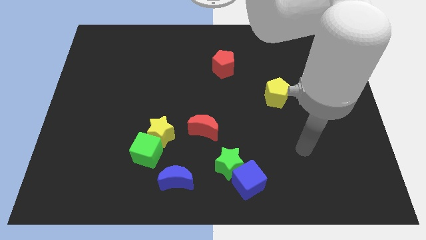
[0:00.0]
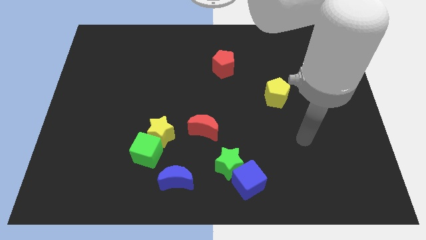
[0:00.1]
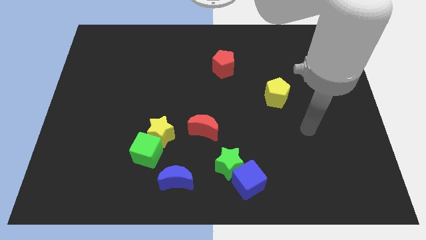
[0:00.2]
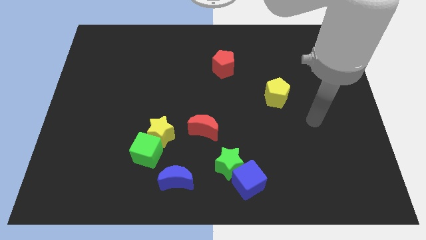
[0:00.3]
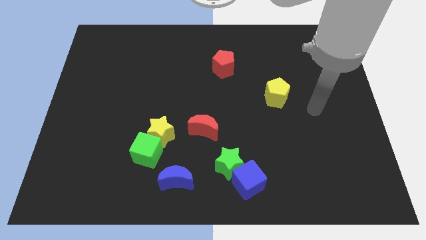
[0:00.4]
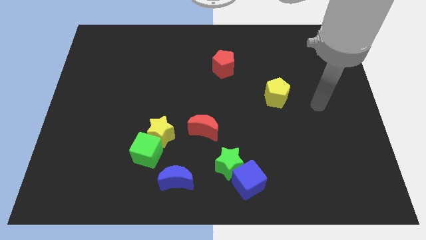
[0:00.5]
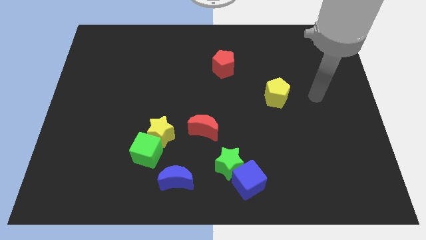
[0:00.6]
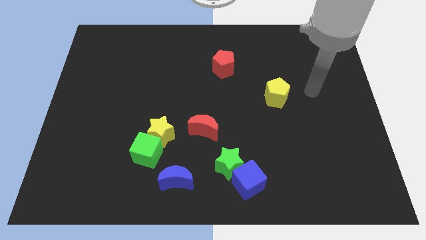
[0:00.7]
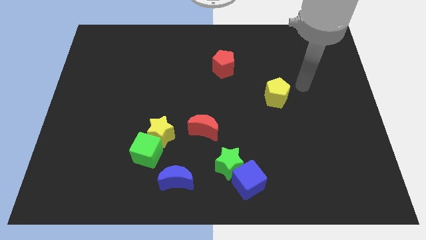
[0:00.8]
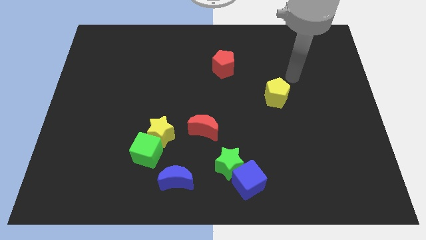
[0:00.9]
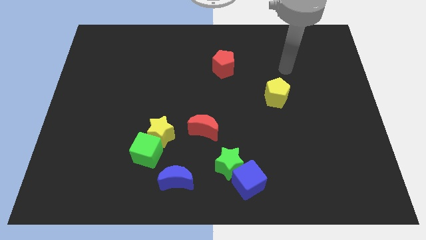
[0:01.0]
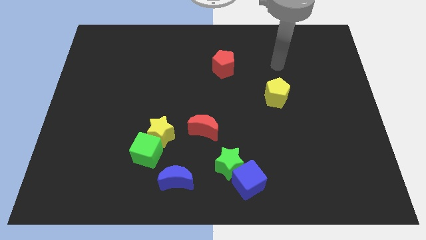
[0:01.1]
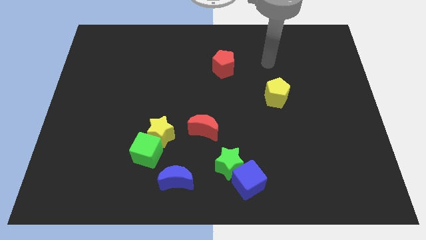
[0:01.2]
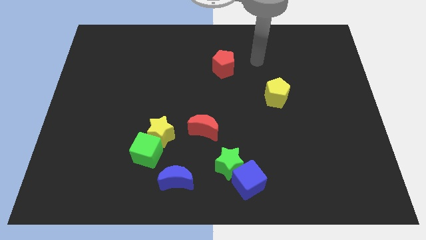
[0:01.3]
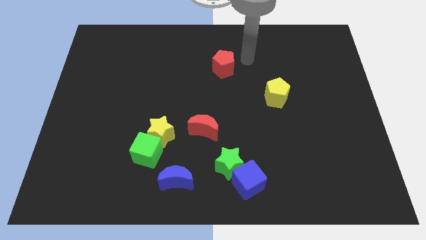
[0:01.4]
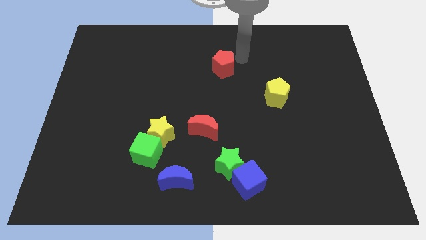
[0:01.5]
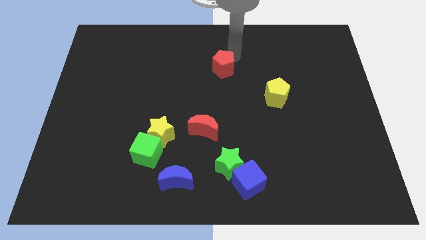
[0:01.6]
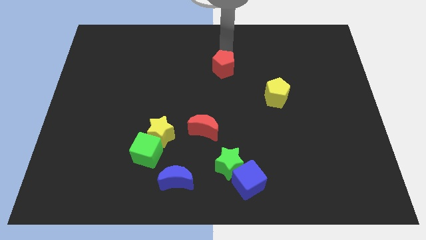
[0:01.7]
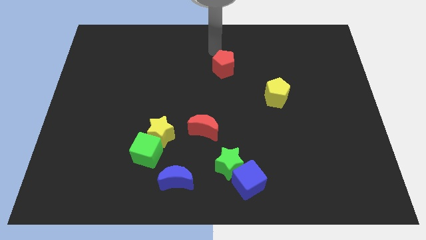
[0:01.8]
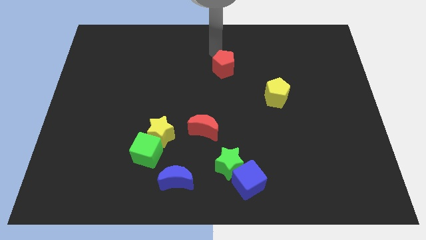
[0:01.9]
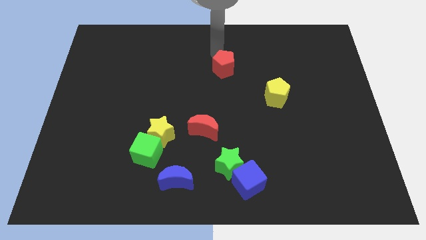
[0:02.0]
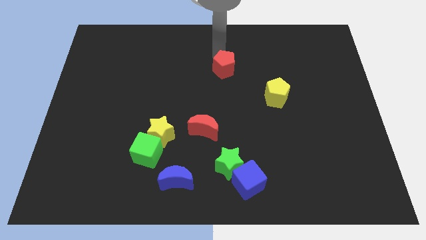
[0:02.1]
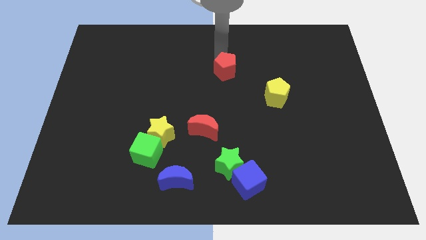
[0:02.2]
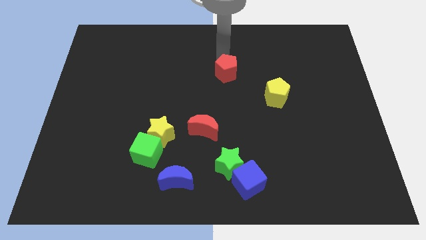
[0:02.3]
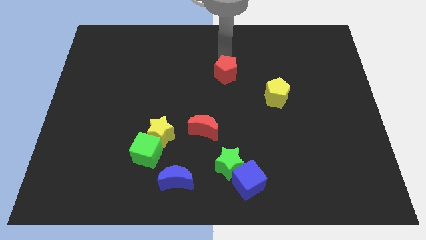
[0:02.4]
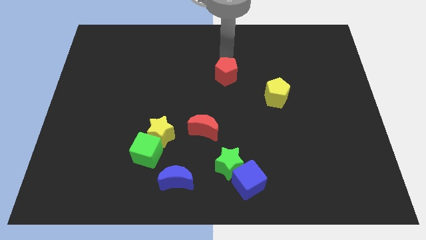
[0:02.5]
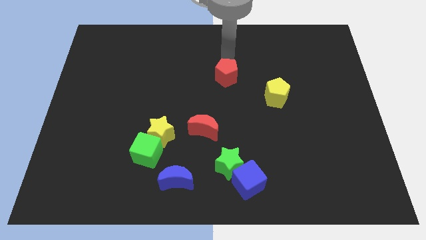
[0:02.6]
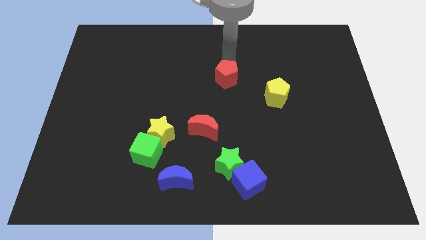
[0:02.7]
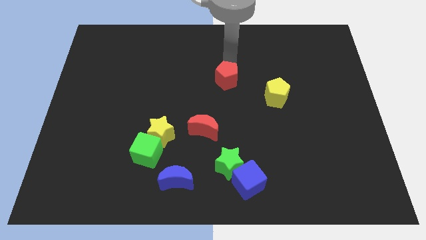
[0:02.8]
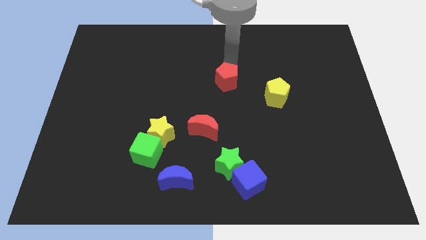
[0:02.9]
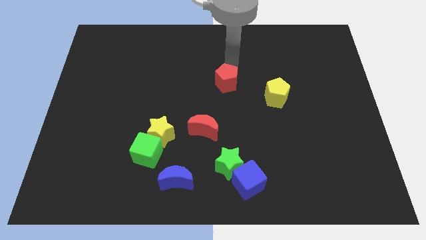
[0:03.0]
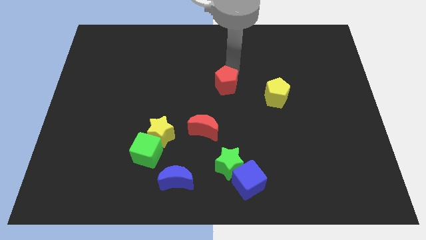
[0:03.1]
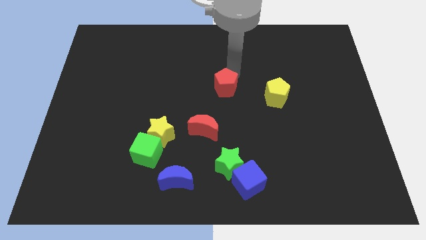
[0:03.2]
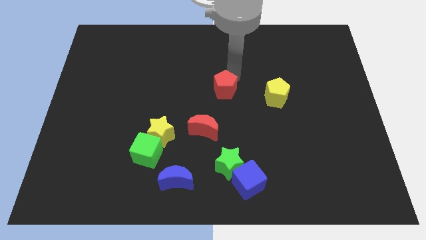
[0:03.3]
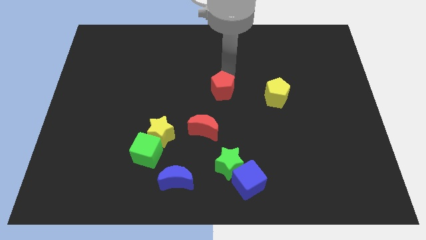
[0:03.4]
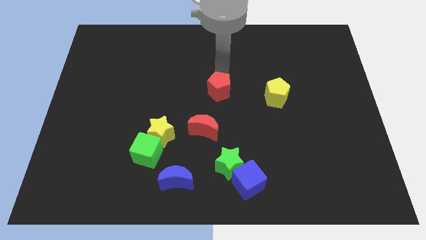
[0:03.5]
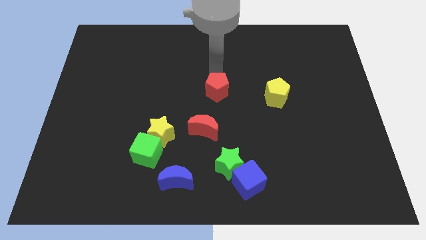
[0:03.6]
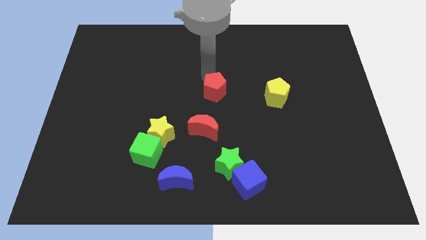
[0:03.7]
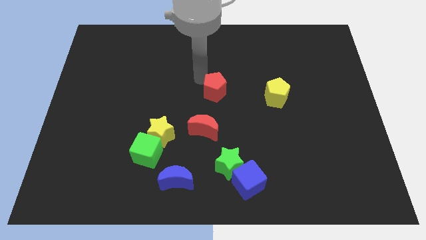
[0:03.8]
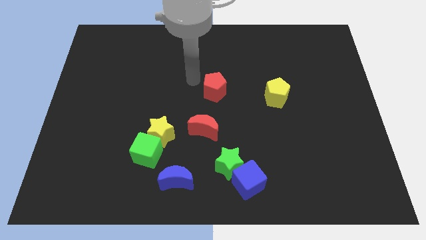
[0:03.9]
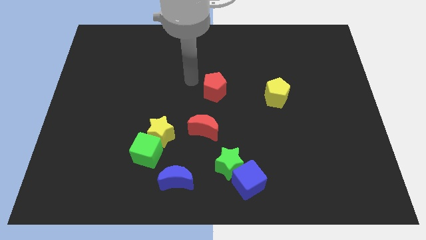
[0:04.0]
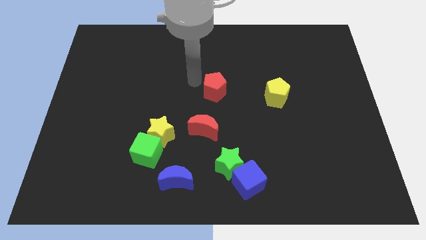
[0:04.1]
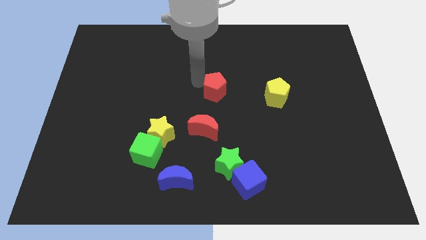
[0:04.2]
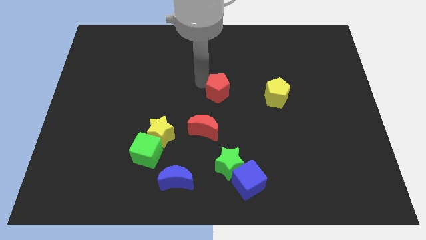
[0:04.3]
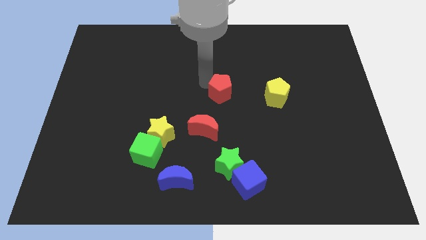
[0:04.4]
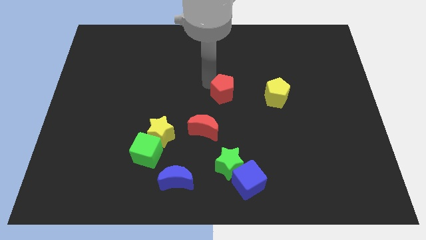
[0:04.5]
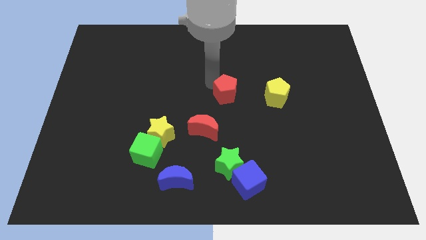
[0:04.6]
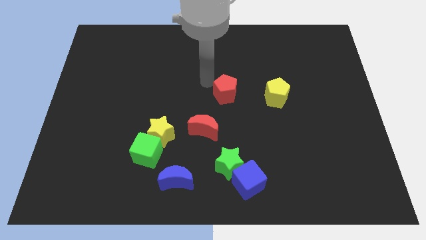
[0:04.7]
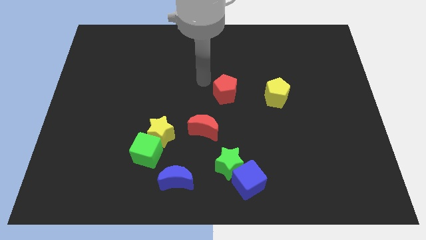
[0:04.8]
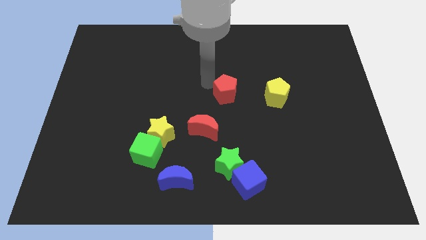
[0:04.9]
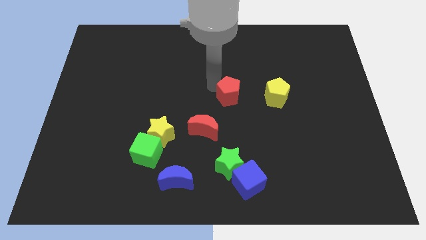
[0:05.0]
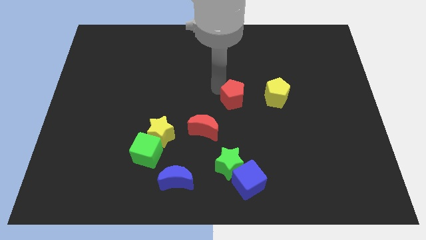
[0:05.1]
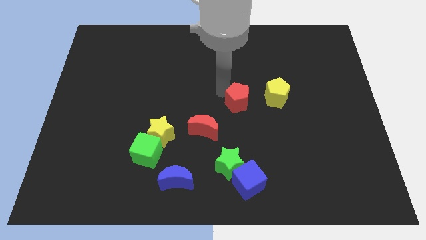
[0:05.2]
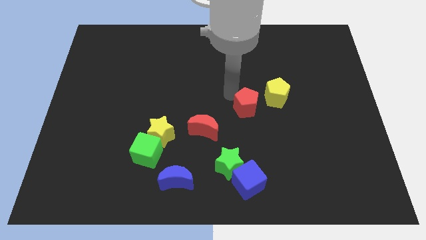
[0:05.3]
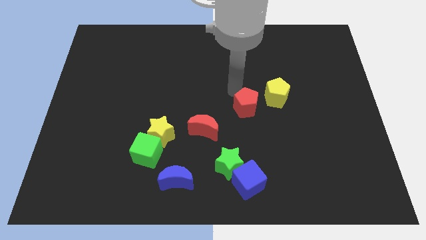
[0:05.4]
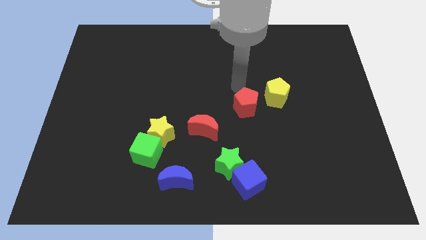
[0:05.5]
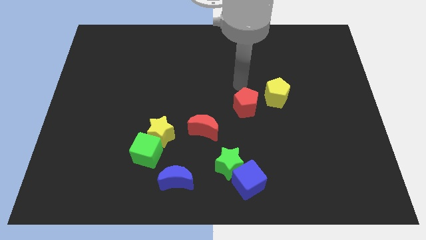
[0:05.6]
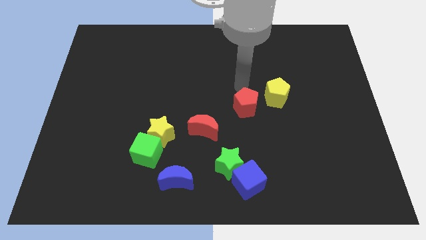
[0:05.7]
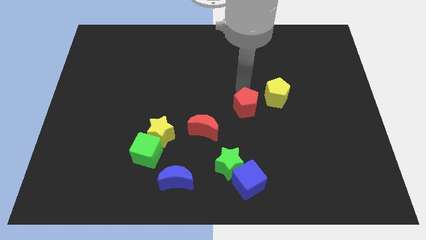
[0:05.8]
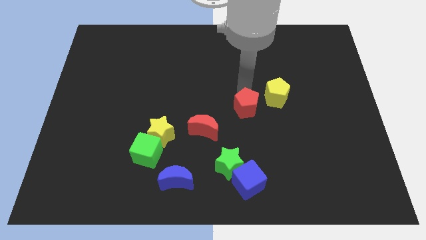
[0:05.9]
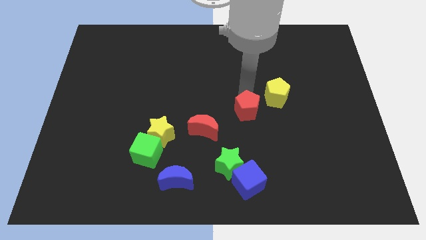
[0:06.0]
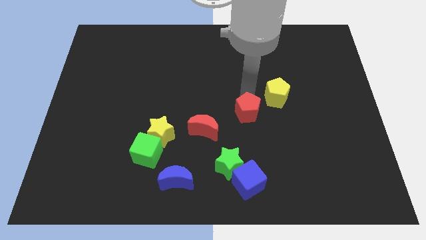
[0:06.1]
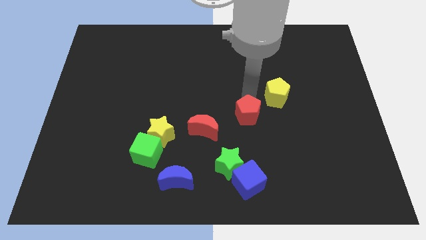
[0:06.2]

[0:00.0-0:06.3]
move the red pentagon to the right of the red moon

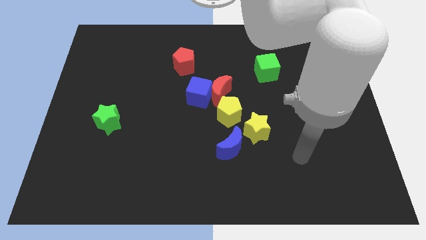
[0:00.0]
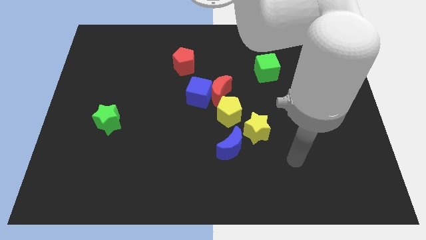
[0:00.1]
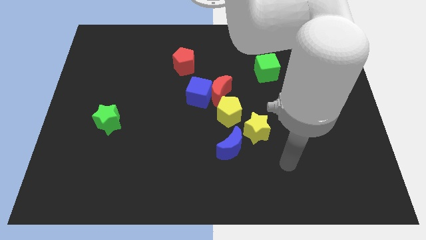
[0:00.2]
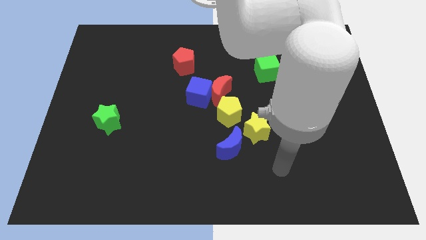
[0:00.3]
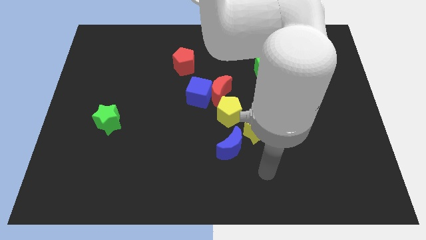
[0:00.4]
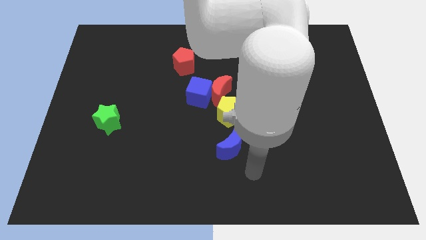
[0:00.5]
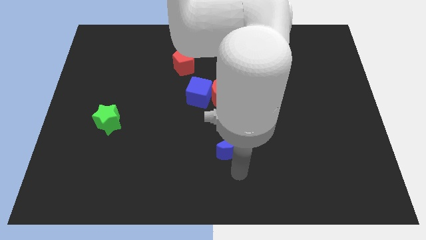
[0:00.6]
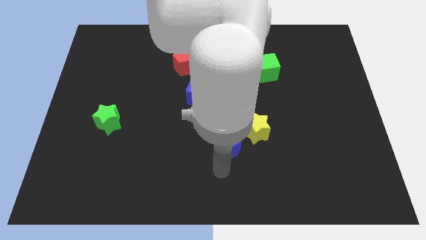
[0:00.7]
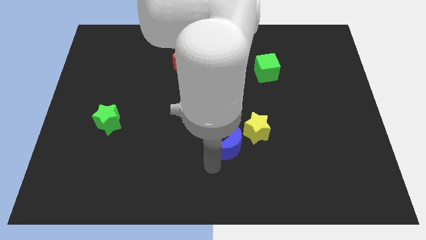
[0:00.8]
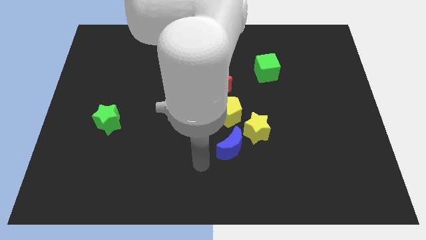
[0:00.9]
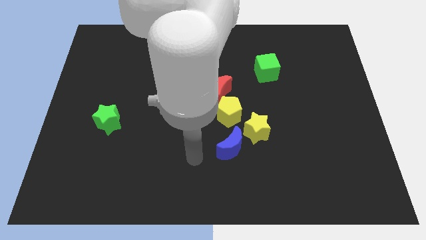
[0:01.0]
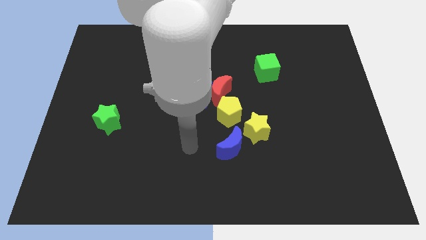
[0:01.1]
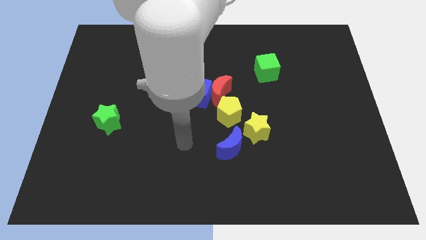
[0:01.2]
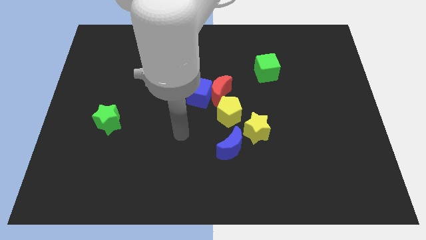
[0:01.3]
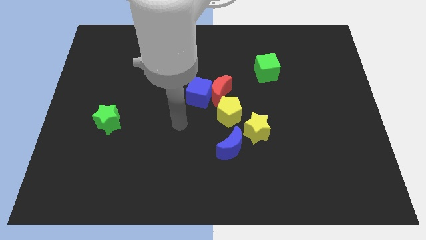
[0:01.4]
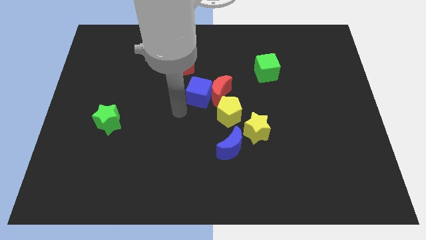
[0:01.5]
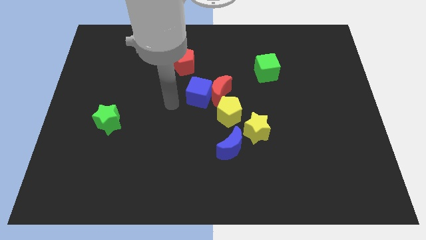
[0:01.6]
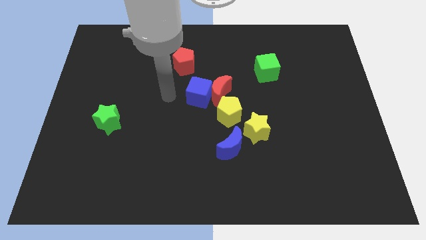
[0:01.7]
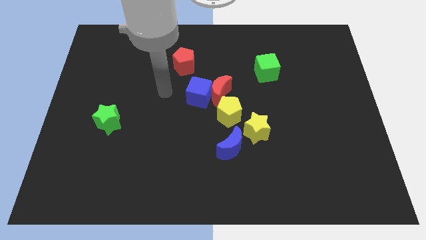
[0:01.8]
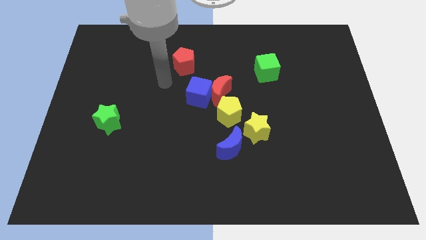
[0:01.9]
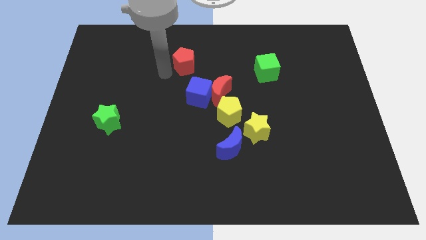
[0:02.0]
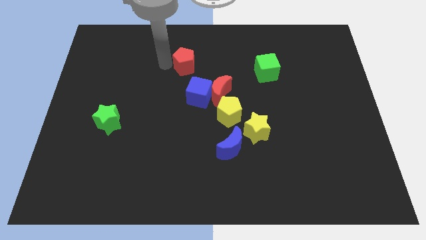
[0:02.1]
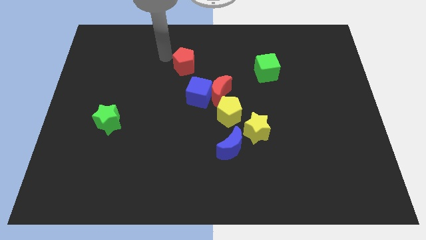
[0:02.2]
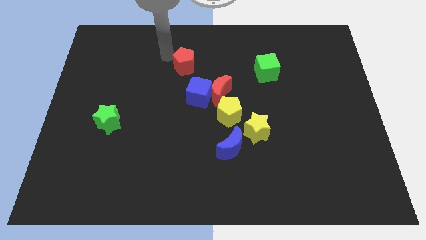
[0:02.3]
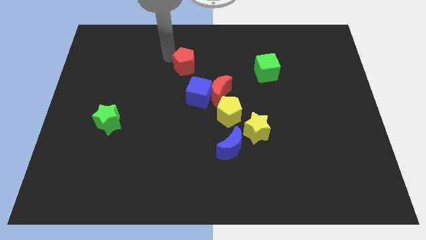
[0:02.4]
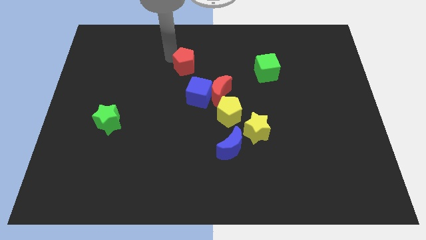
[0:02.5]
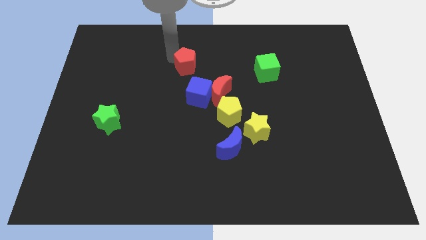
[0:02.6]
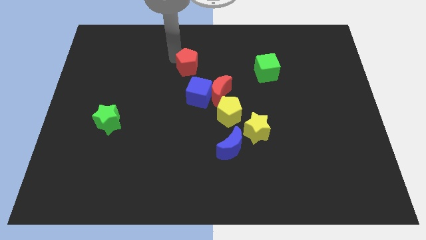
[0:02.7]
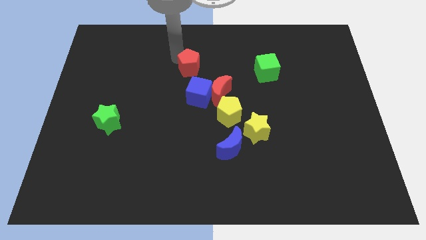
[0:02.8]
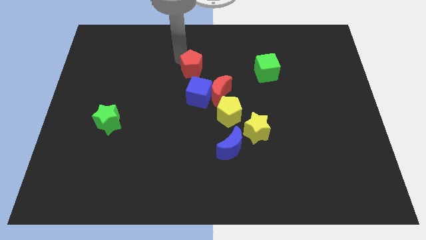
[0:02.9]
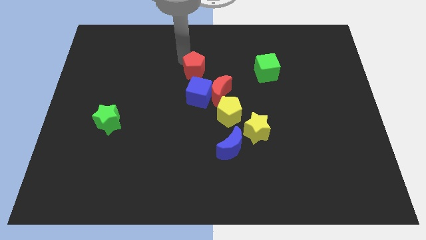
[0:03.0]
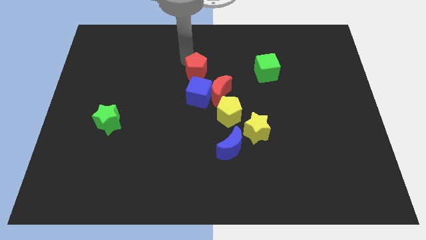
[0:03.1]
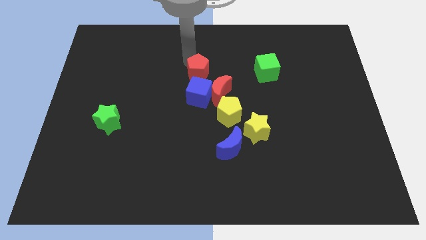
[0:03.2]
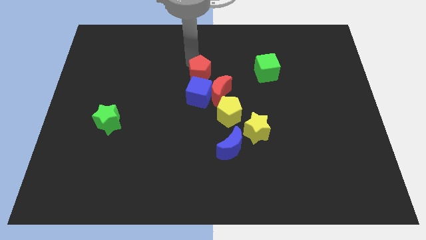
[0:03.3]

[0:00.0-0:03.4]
put the red pentagon to the top right side of the blue cube
